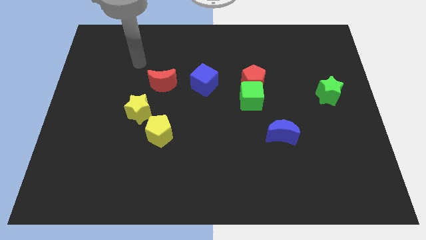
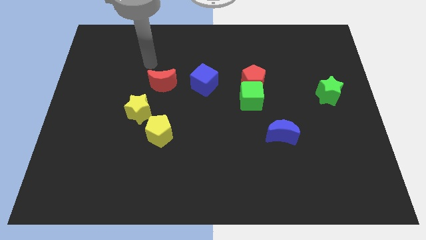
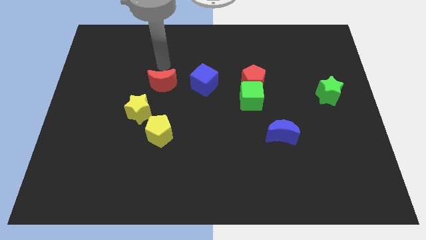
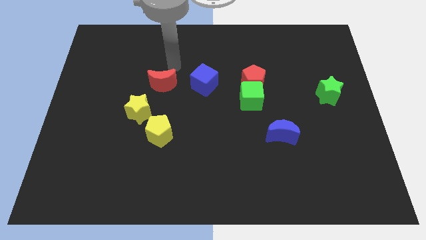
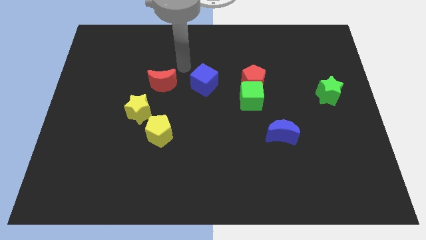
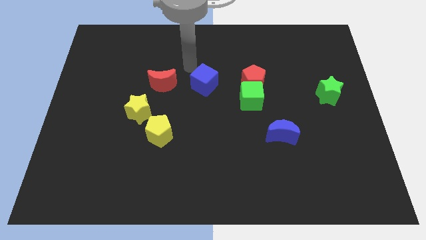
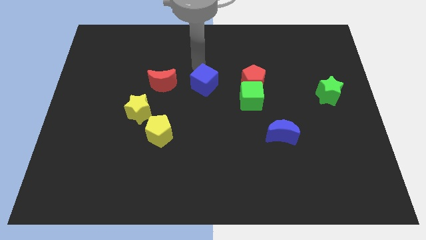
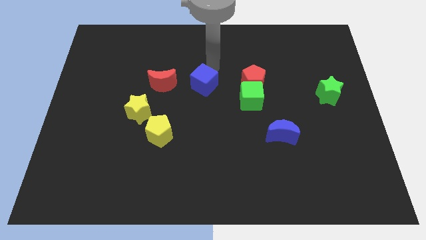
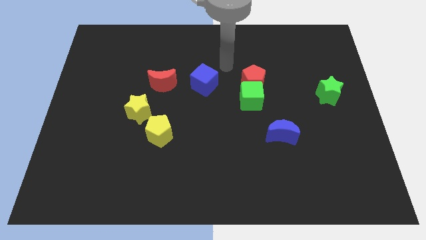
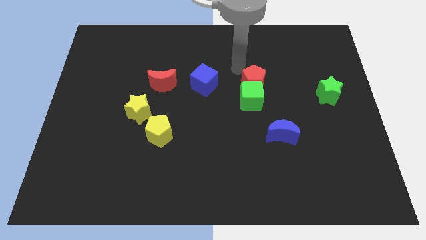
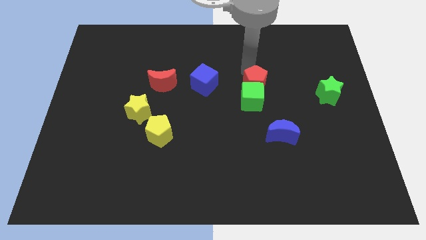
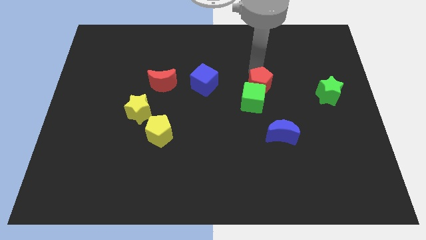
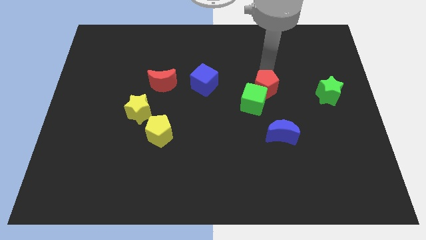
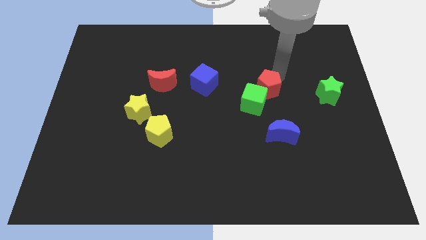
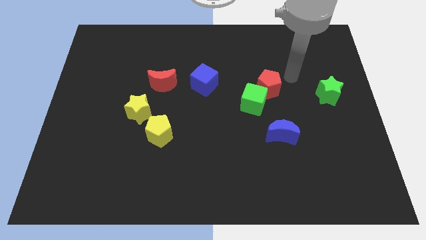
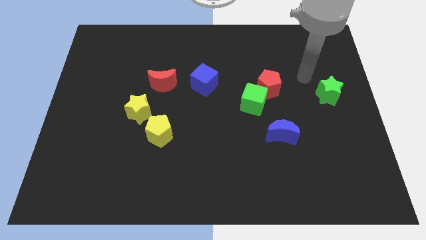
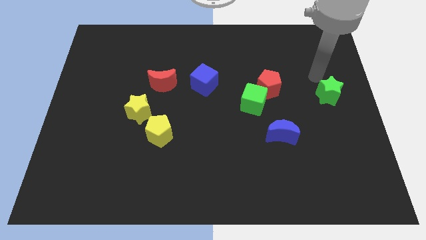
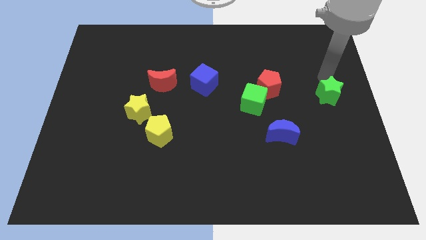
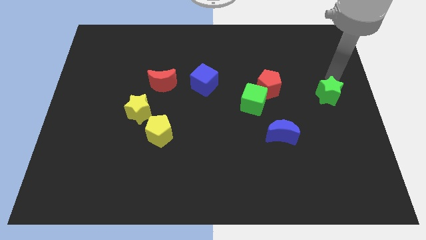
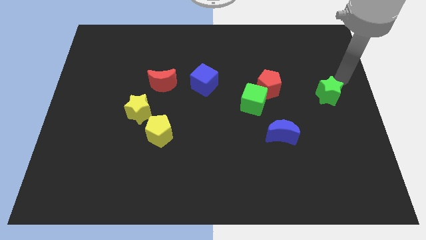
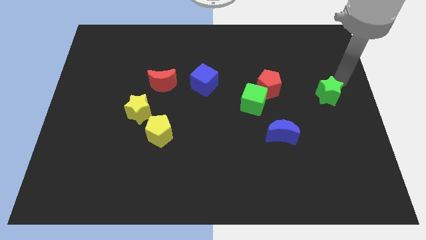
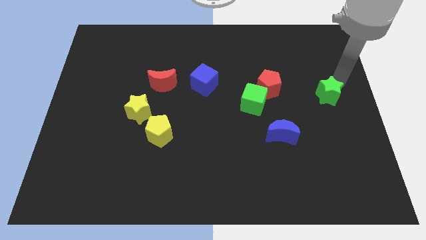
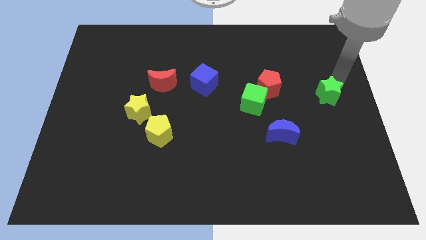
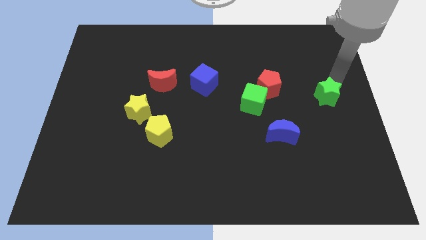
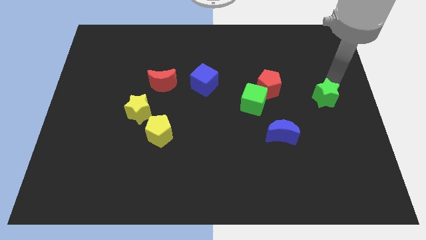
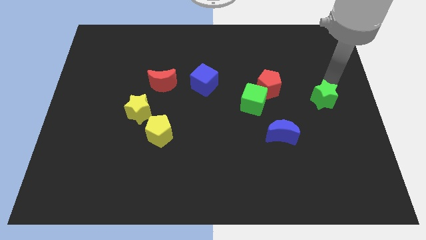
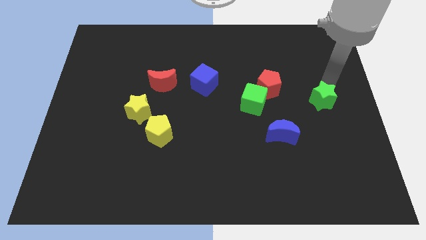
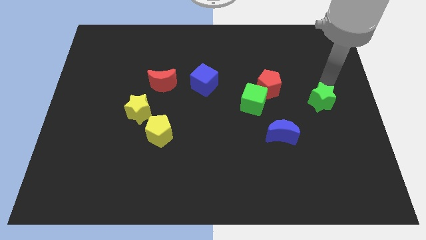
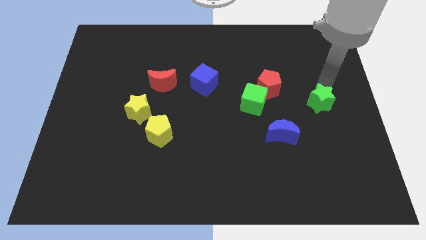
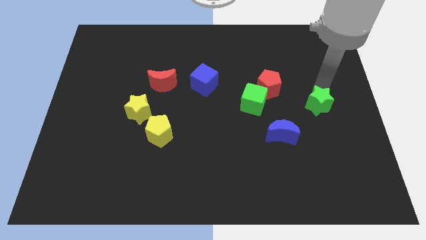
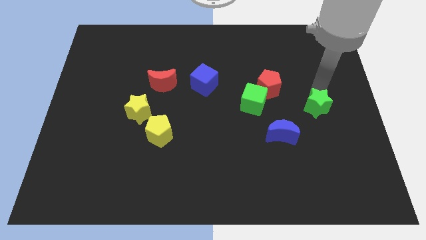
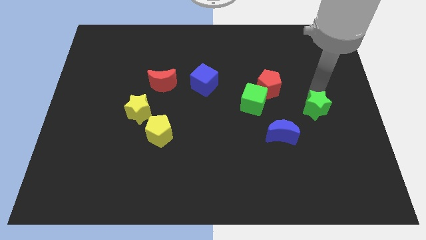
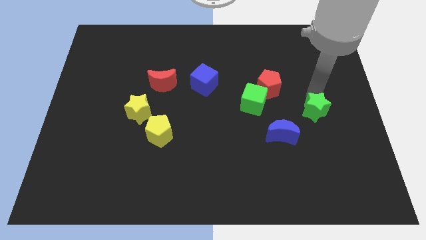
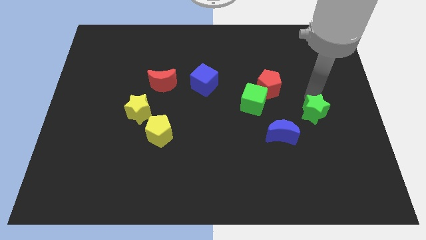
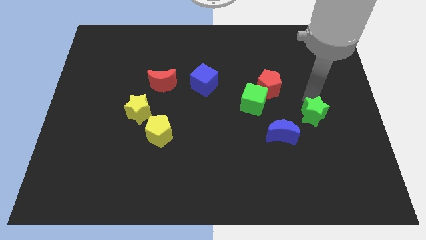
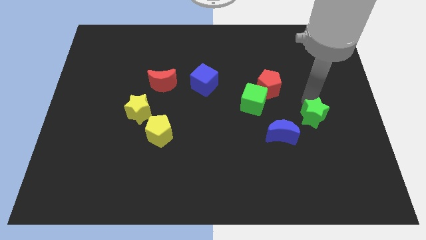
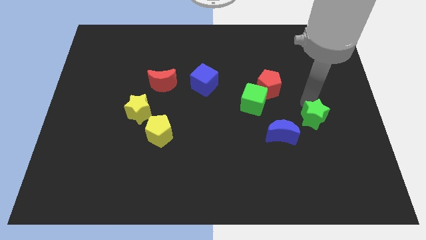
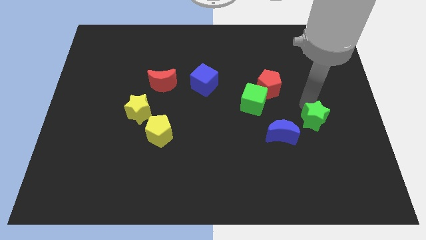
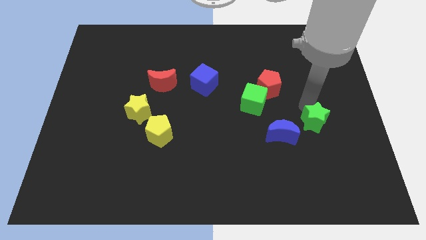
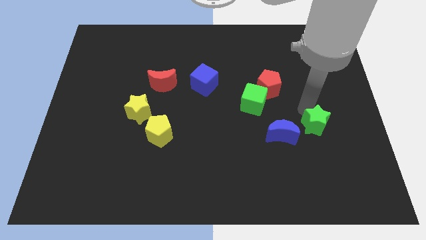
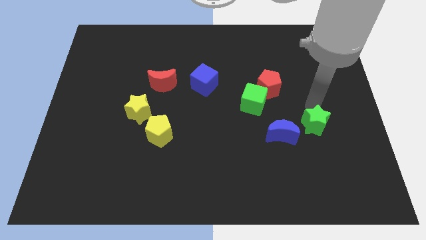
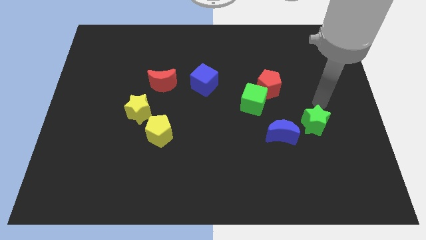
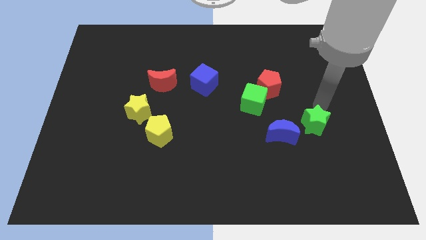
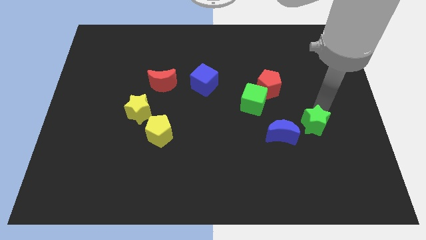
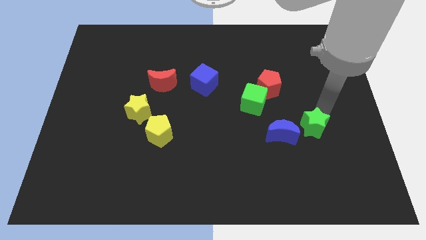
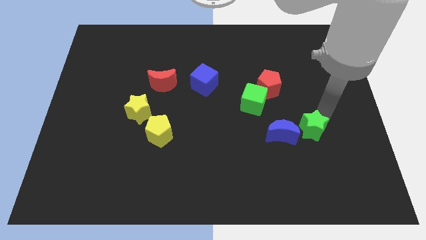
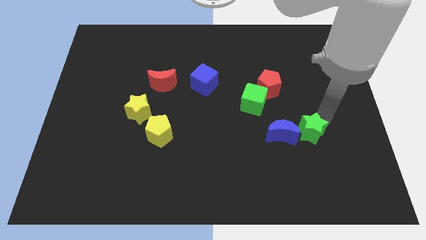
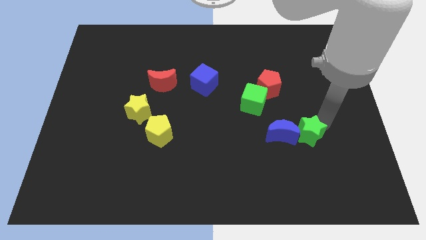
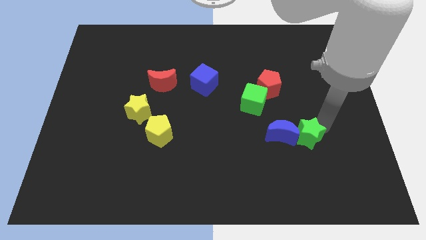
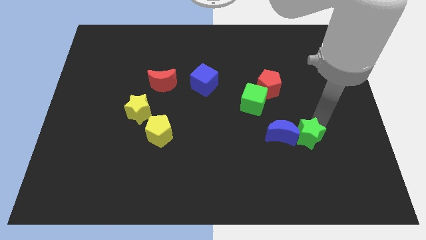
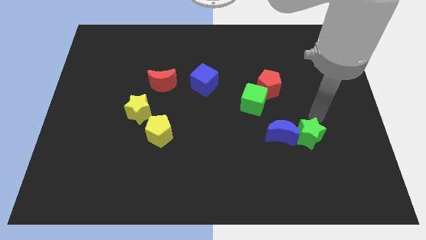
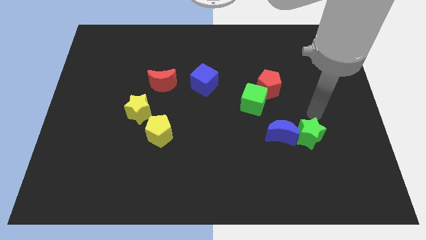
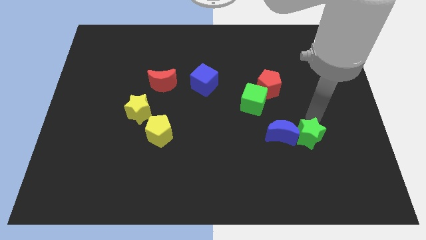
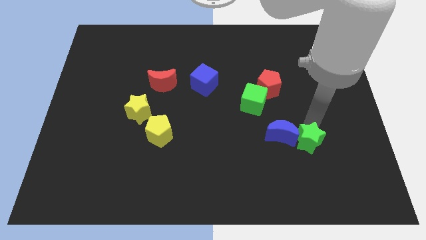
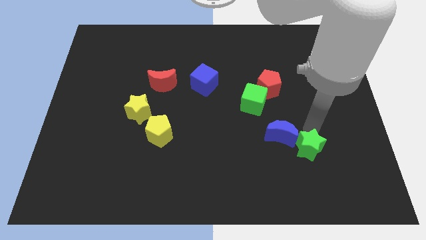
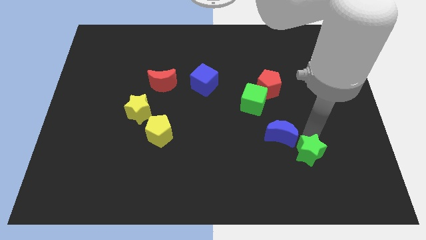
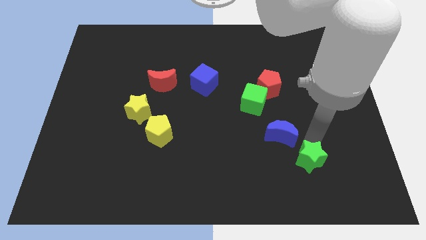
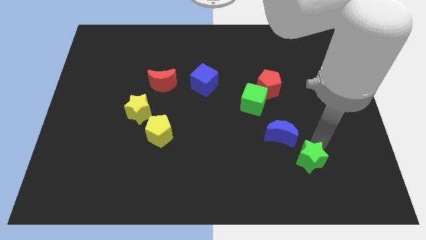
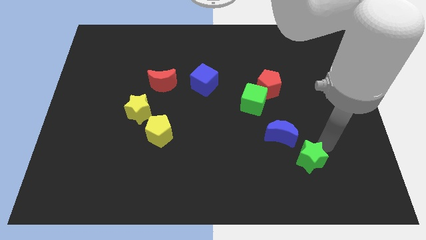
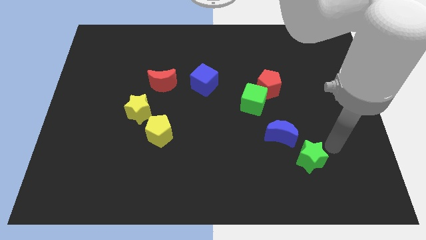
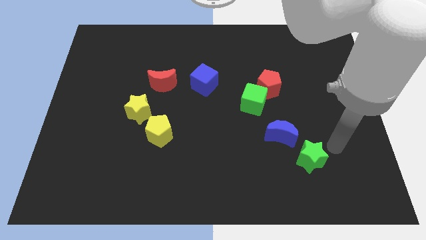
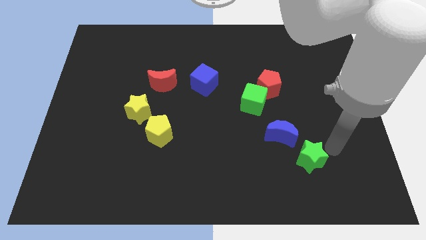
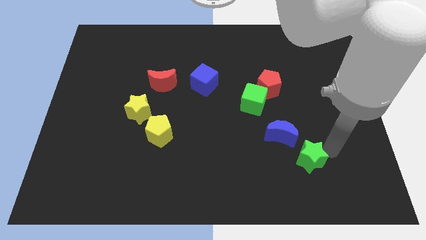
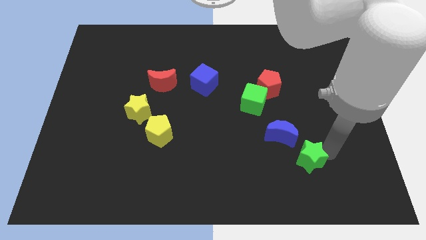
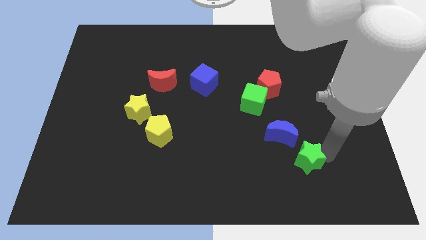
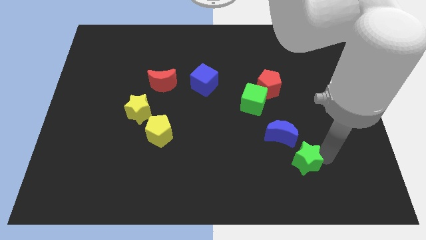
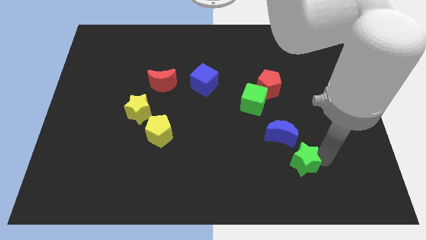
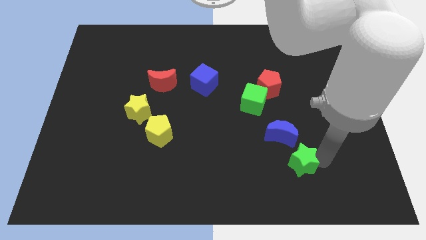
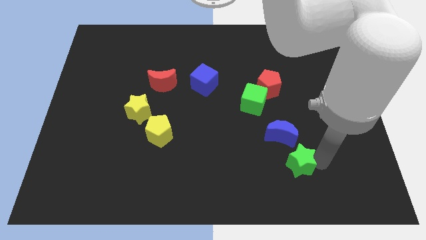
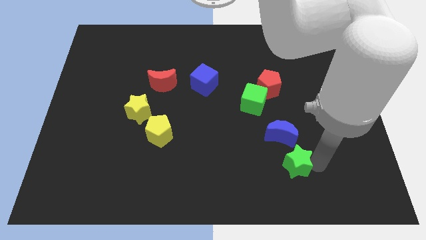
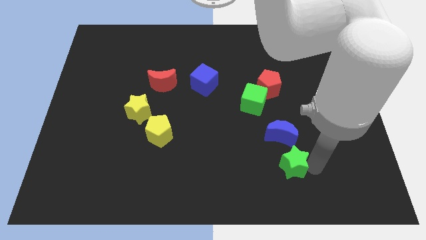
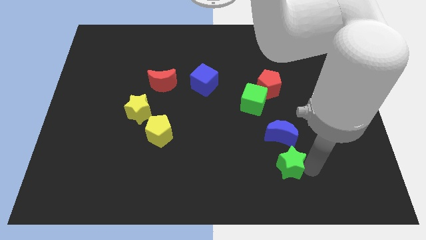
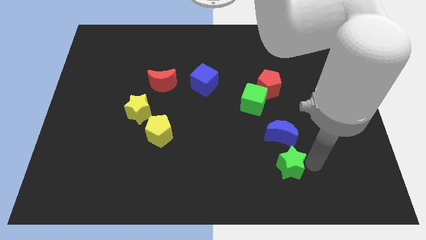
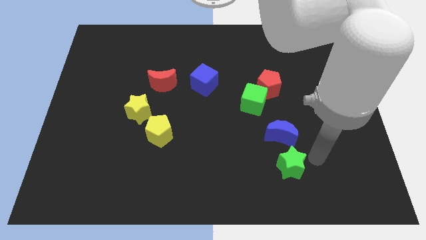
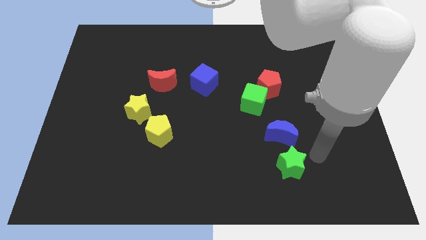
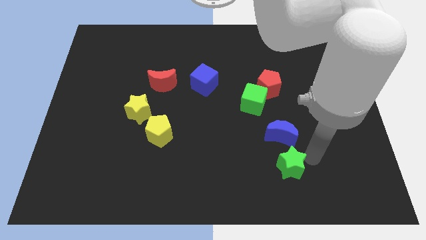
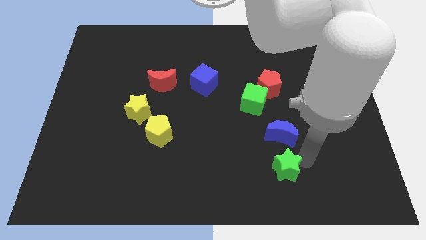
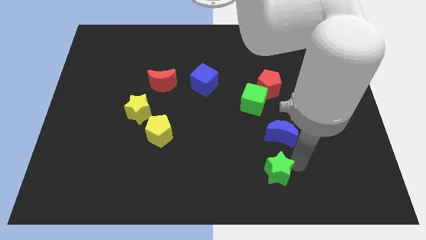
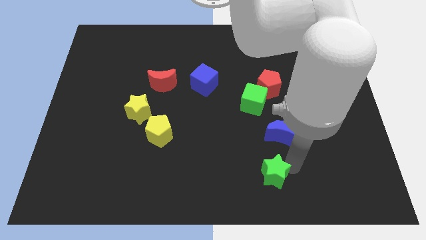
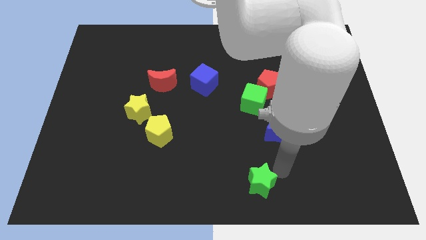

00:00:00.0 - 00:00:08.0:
push the green star to the bottom side
